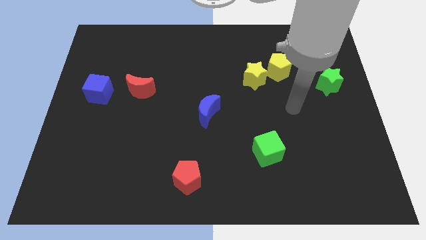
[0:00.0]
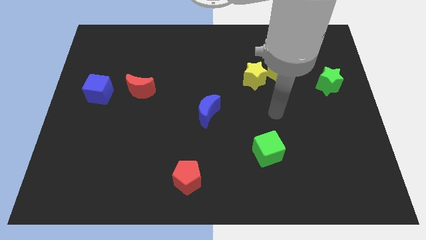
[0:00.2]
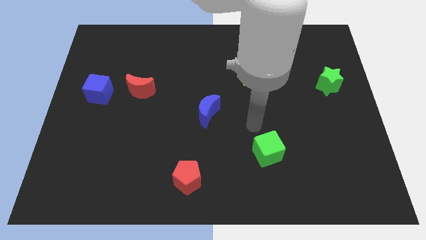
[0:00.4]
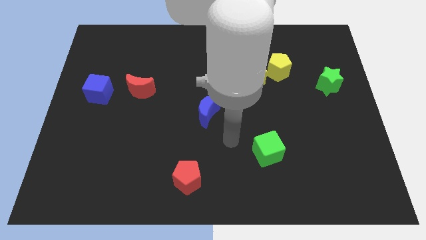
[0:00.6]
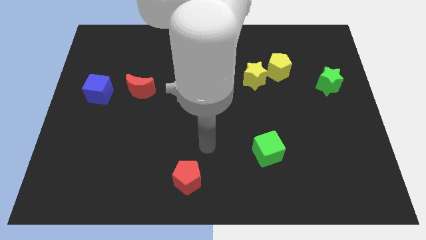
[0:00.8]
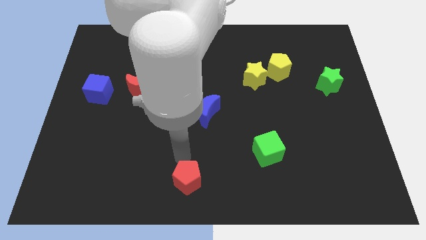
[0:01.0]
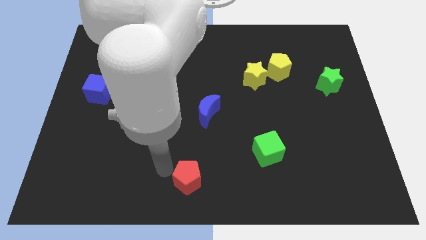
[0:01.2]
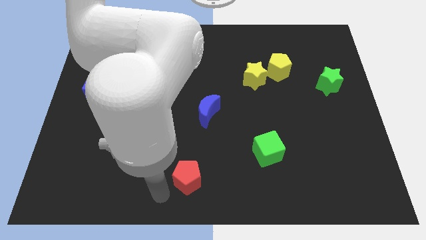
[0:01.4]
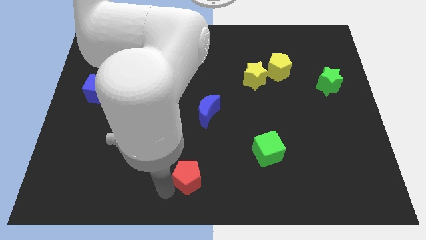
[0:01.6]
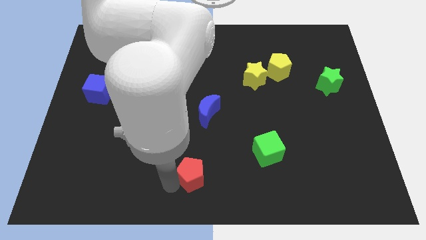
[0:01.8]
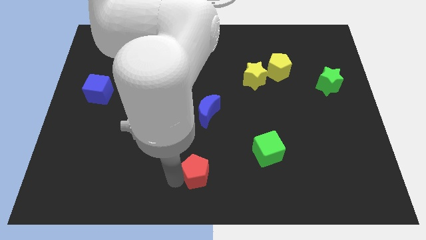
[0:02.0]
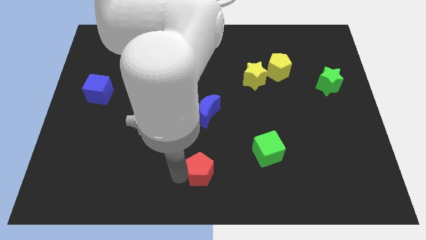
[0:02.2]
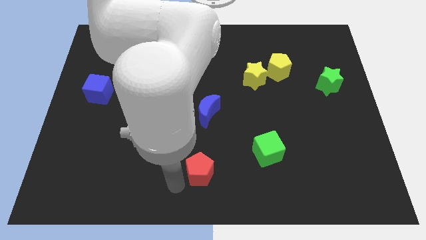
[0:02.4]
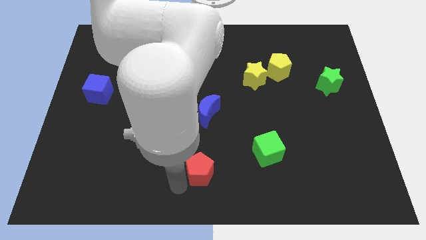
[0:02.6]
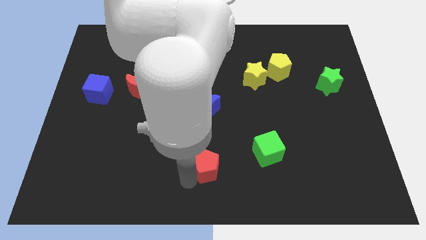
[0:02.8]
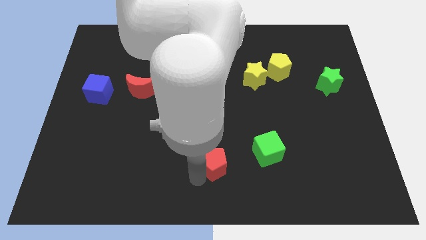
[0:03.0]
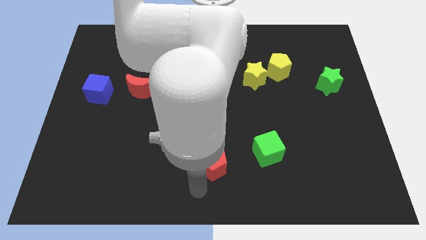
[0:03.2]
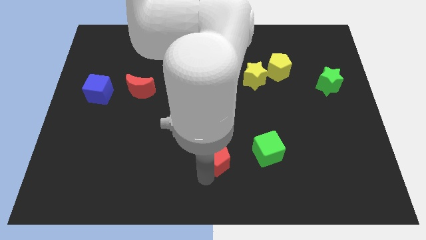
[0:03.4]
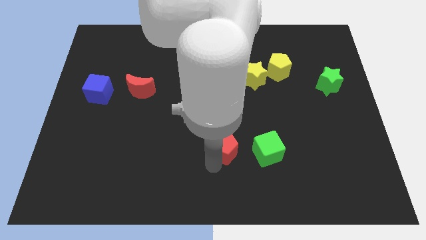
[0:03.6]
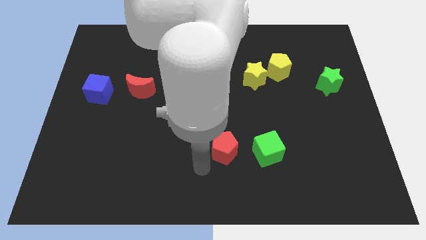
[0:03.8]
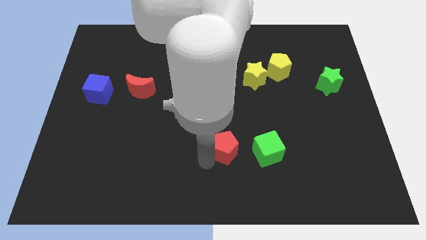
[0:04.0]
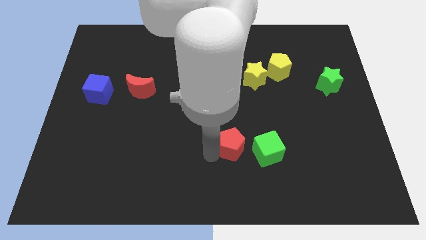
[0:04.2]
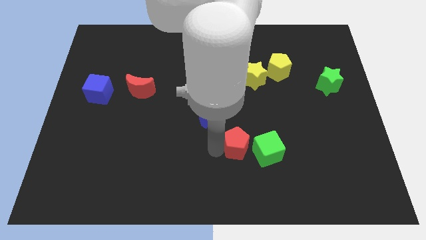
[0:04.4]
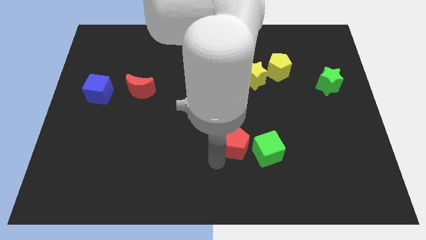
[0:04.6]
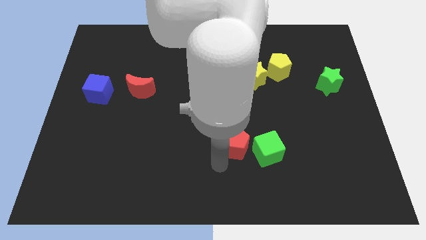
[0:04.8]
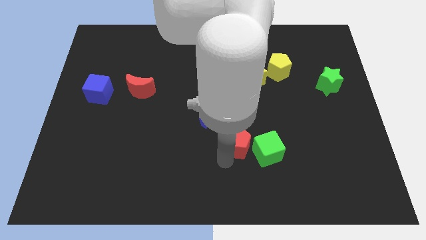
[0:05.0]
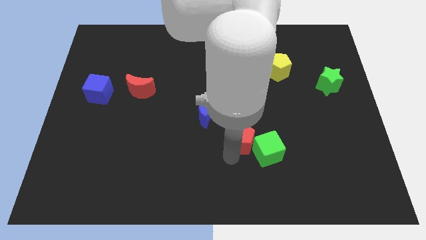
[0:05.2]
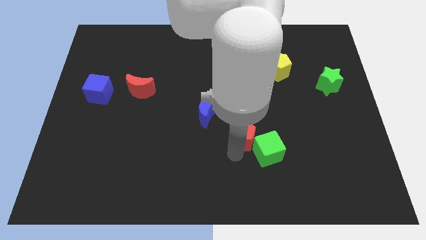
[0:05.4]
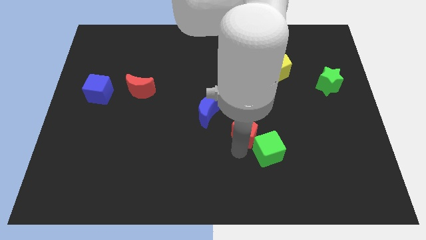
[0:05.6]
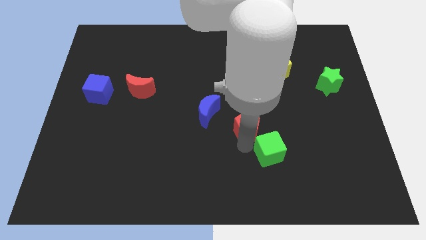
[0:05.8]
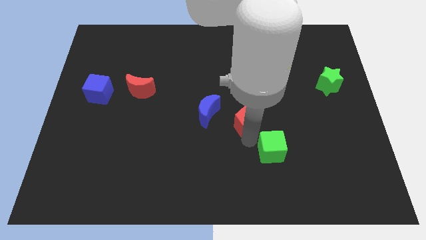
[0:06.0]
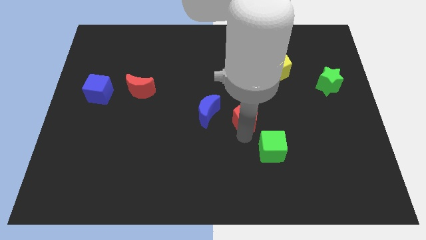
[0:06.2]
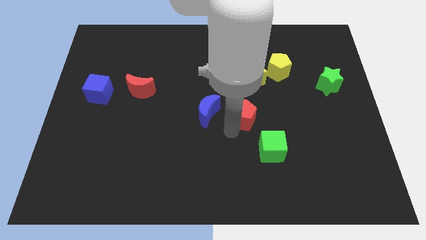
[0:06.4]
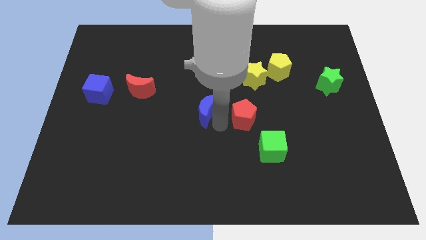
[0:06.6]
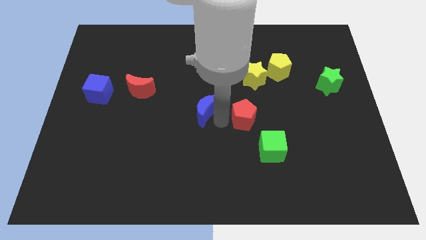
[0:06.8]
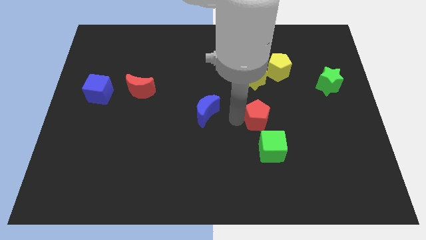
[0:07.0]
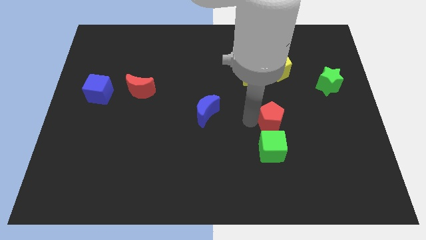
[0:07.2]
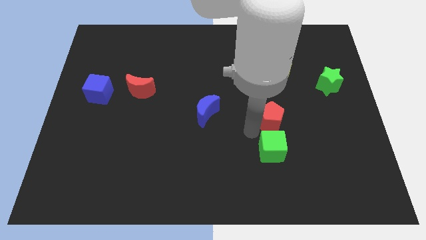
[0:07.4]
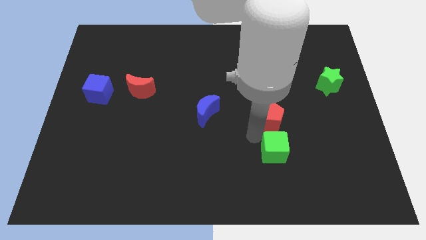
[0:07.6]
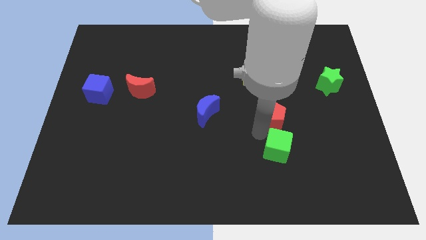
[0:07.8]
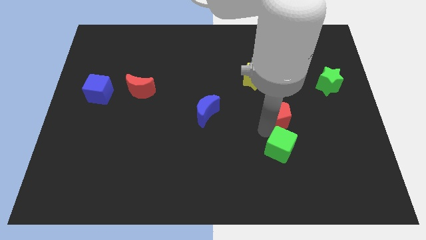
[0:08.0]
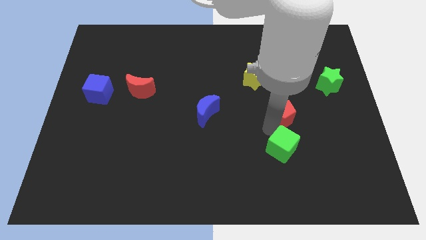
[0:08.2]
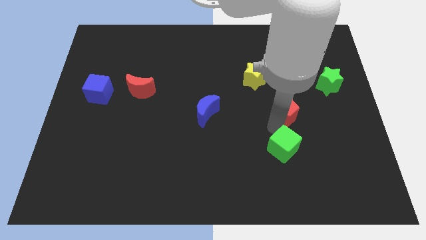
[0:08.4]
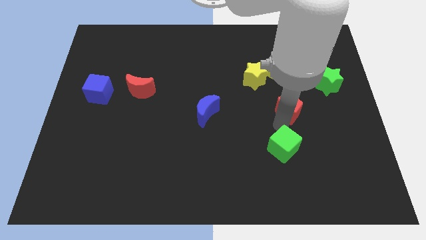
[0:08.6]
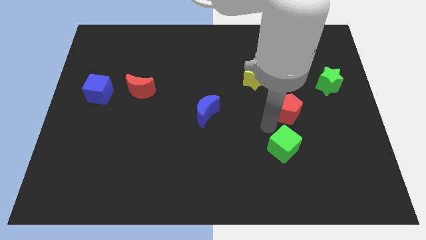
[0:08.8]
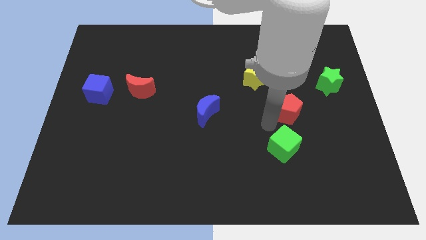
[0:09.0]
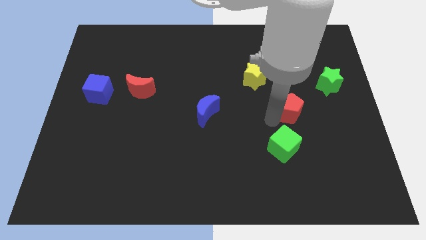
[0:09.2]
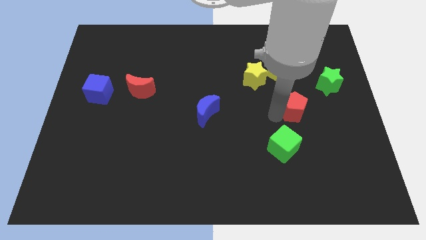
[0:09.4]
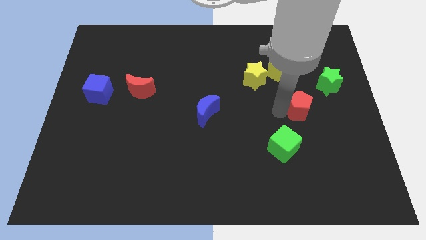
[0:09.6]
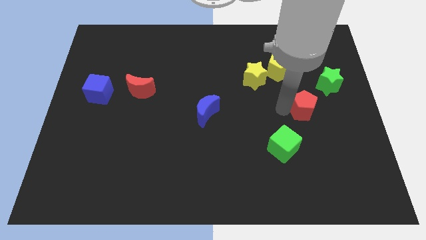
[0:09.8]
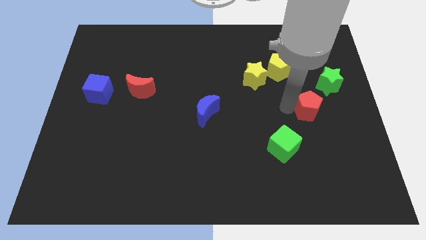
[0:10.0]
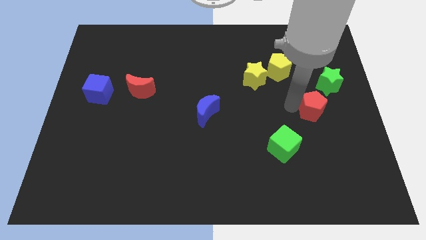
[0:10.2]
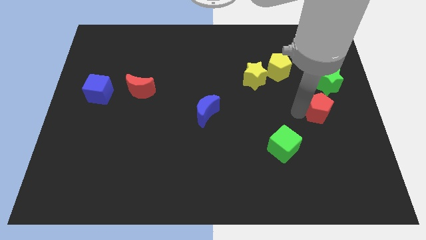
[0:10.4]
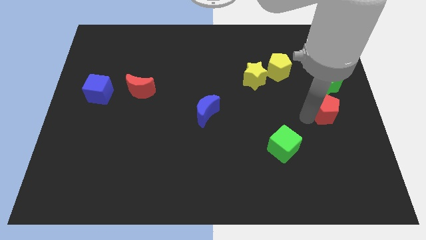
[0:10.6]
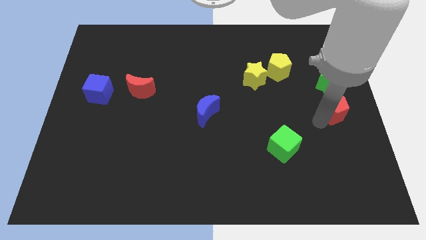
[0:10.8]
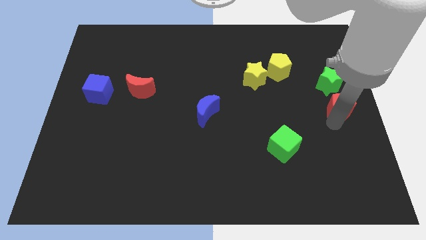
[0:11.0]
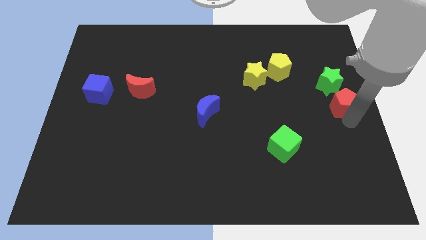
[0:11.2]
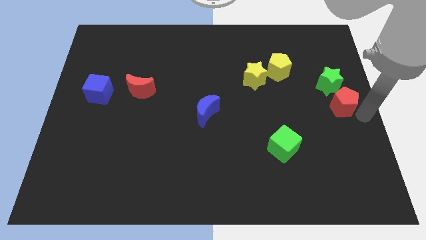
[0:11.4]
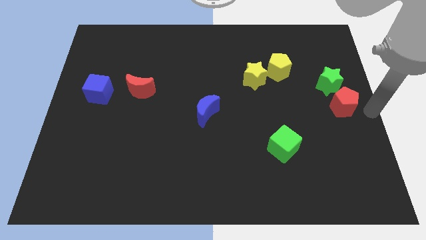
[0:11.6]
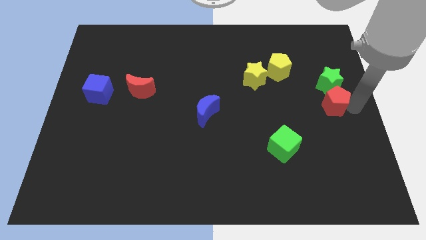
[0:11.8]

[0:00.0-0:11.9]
move the red pentagon to the green star

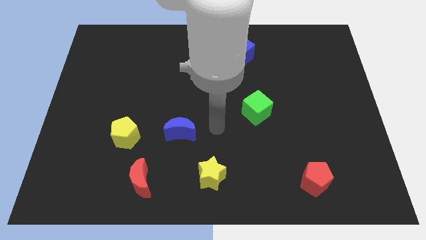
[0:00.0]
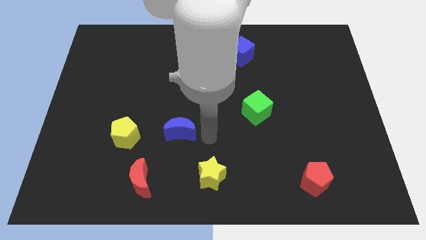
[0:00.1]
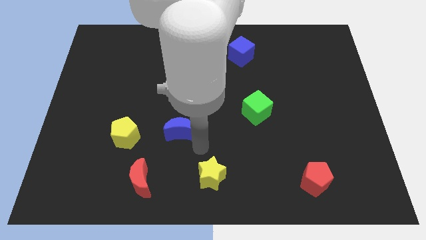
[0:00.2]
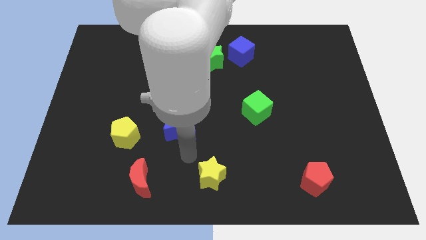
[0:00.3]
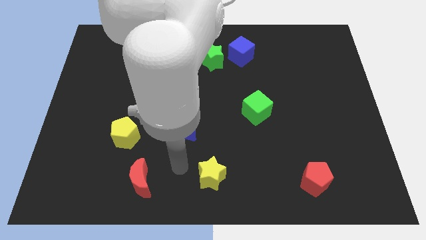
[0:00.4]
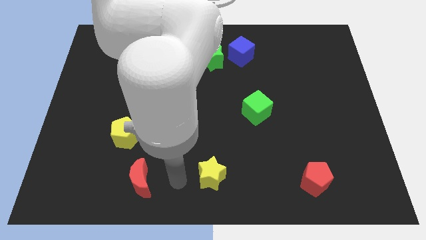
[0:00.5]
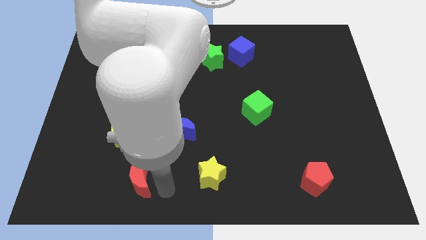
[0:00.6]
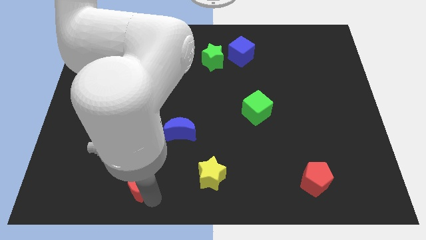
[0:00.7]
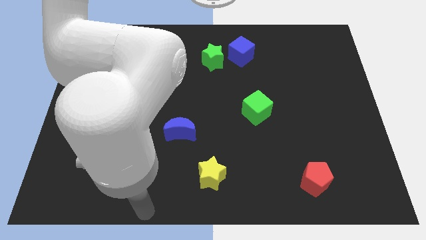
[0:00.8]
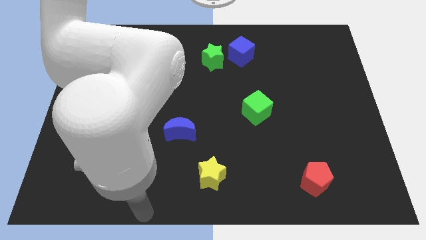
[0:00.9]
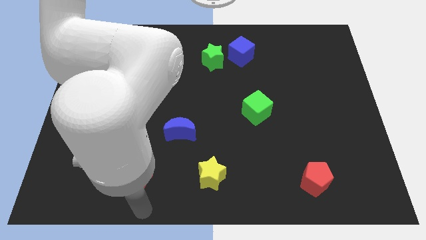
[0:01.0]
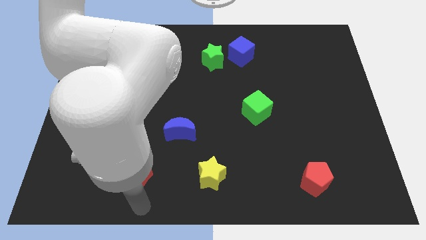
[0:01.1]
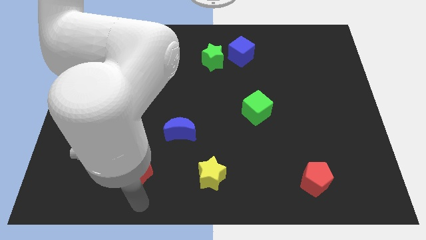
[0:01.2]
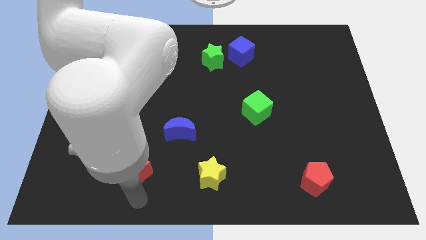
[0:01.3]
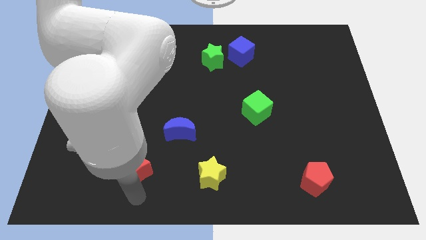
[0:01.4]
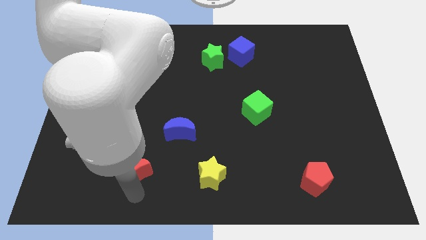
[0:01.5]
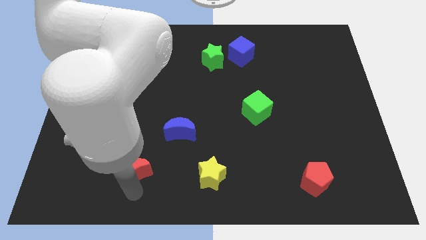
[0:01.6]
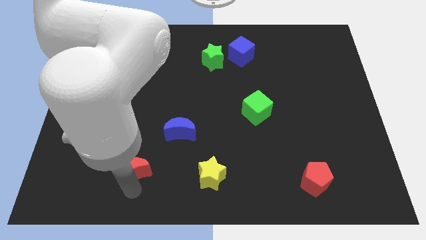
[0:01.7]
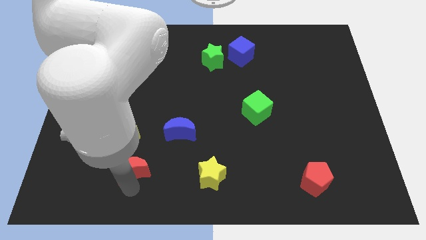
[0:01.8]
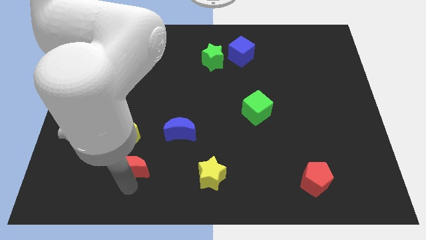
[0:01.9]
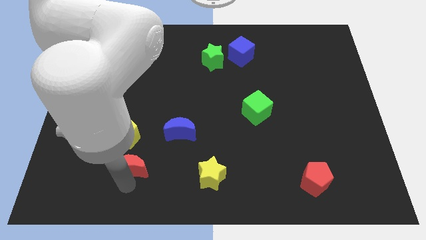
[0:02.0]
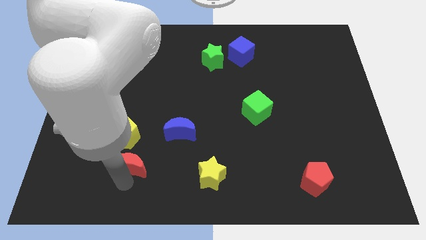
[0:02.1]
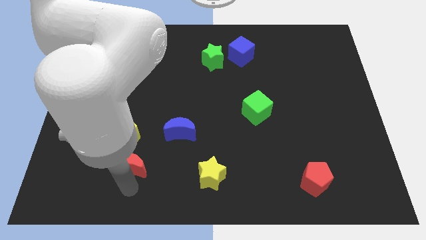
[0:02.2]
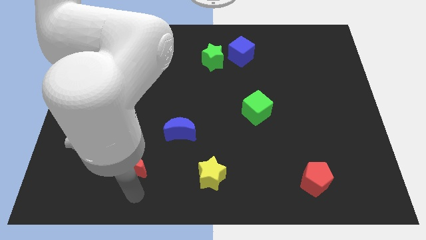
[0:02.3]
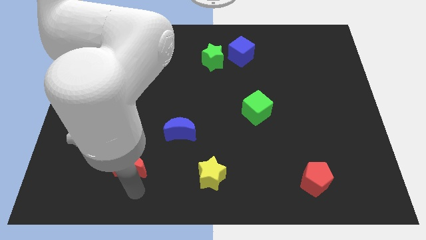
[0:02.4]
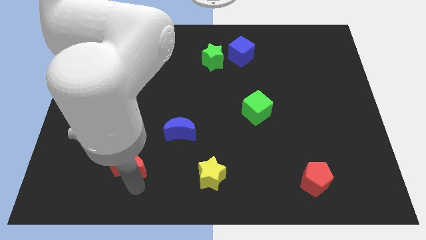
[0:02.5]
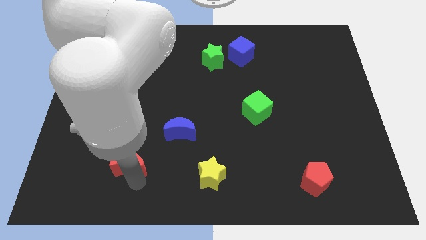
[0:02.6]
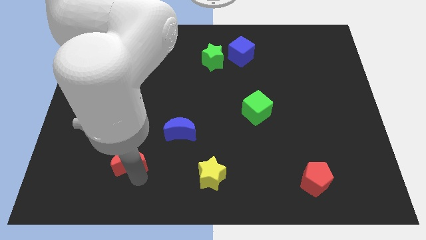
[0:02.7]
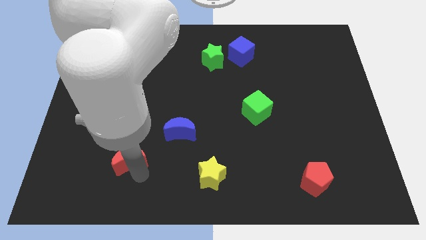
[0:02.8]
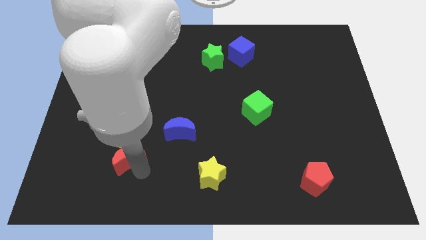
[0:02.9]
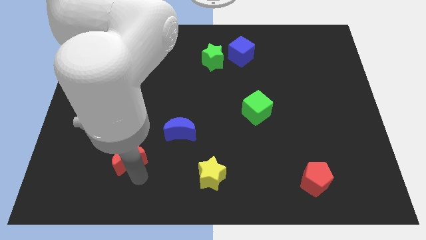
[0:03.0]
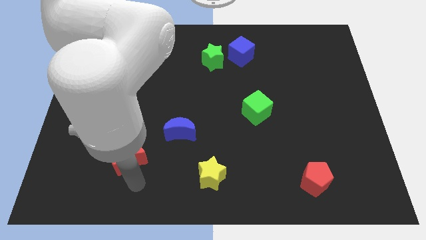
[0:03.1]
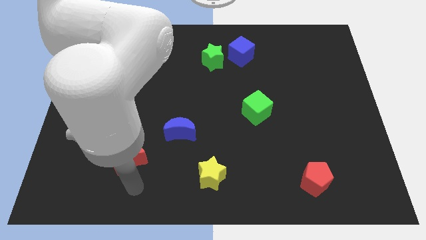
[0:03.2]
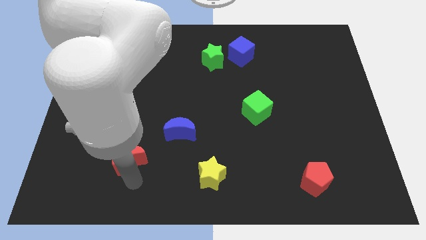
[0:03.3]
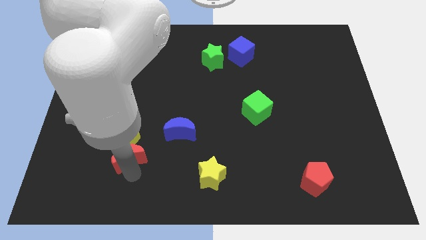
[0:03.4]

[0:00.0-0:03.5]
put the red moon close to the yellow pentagon
